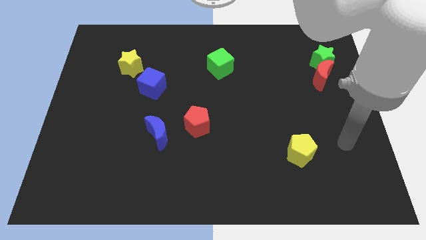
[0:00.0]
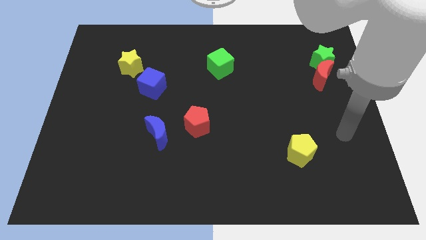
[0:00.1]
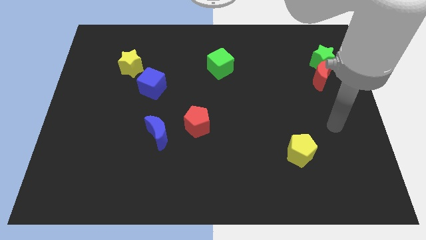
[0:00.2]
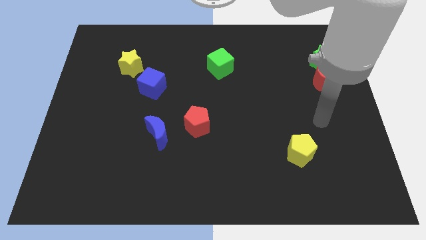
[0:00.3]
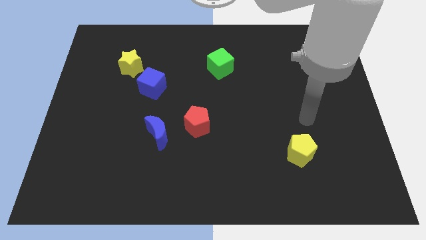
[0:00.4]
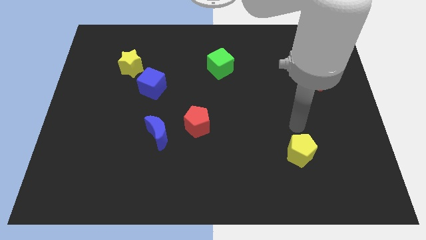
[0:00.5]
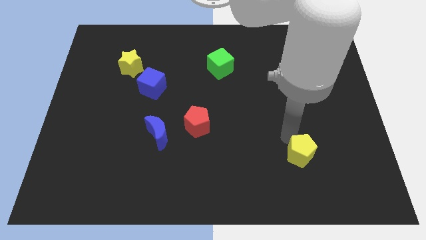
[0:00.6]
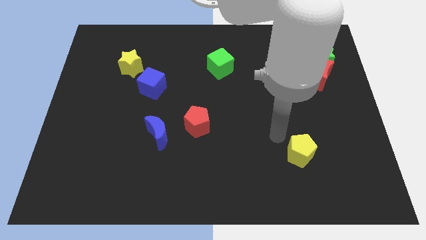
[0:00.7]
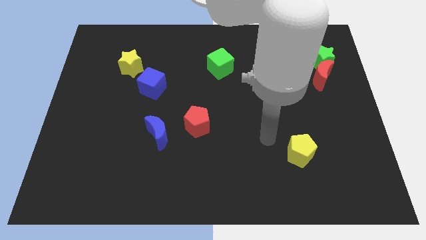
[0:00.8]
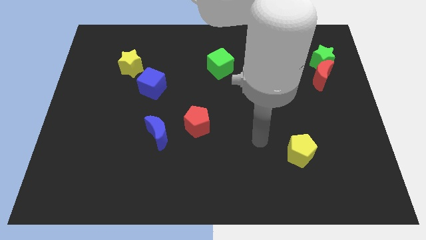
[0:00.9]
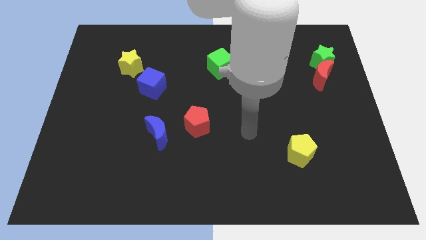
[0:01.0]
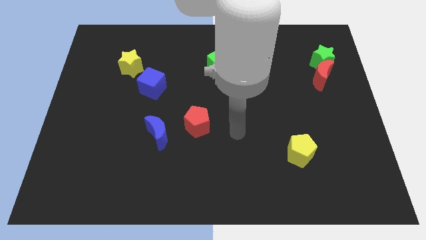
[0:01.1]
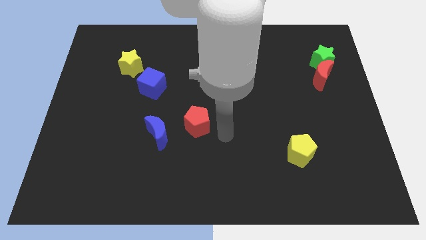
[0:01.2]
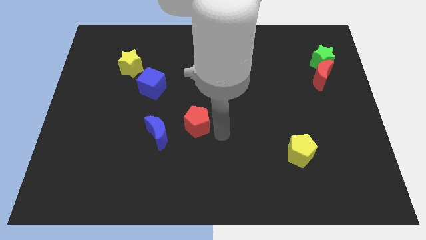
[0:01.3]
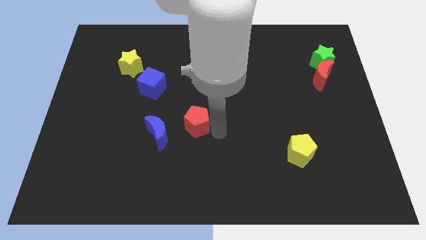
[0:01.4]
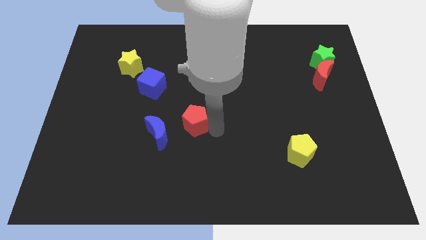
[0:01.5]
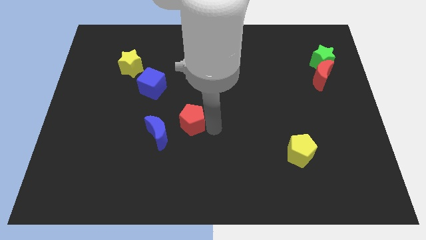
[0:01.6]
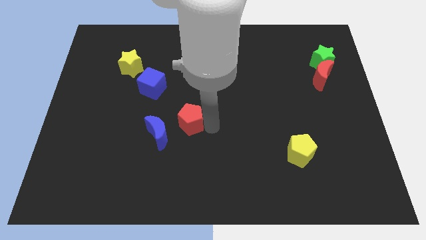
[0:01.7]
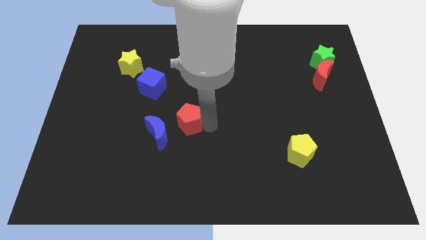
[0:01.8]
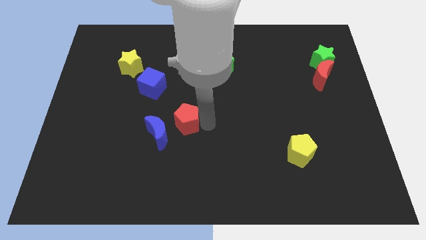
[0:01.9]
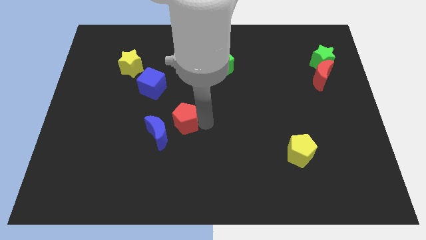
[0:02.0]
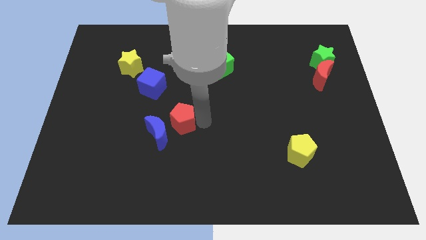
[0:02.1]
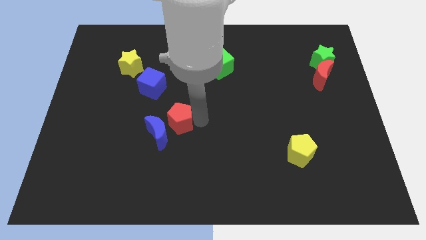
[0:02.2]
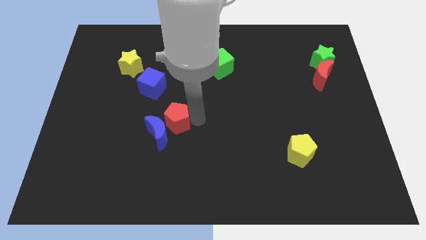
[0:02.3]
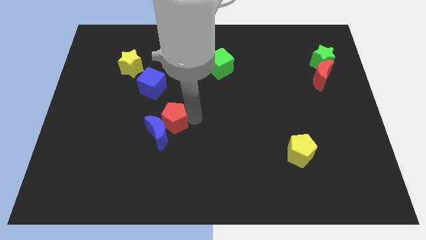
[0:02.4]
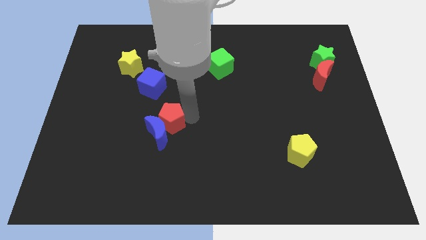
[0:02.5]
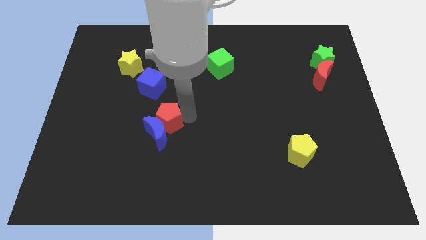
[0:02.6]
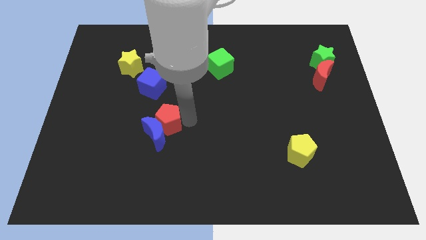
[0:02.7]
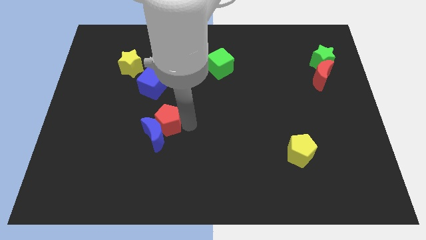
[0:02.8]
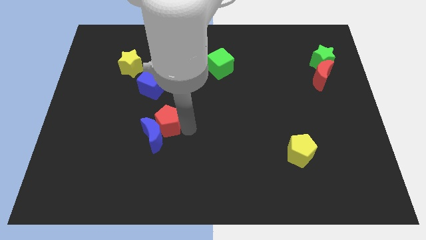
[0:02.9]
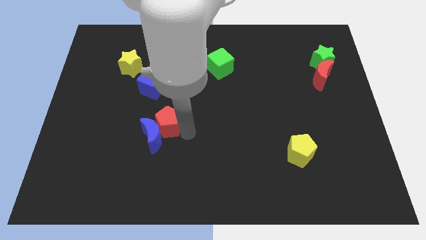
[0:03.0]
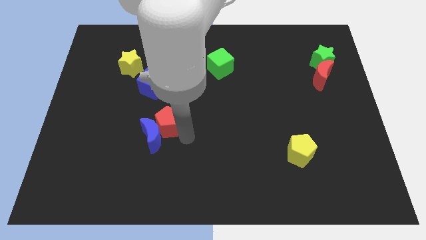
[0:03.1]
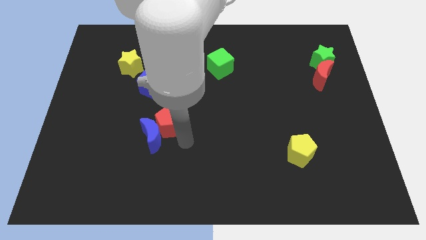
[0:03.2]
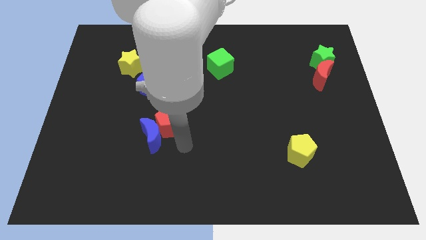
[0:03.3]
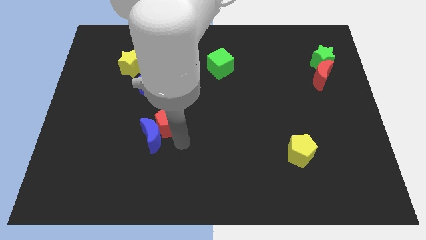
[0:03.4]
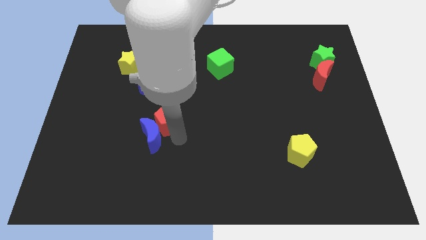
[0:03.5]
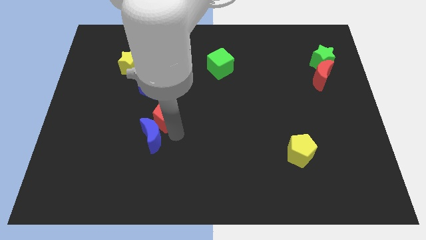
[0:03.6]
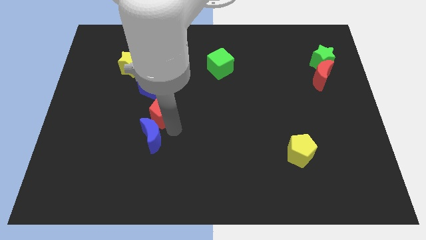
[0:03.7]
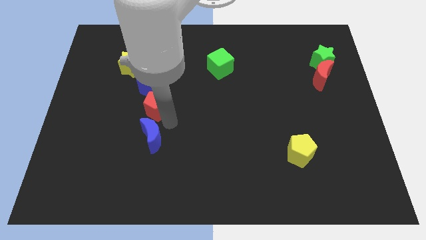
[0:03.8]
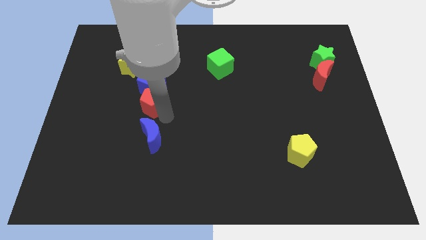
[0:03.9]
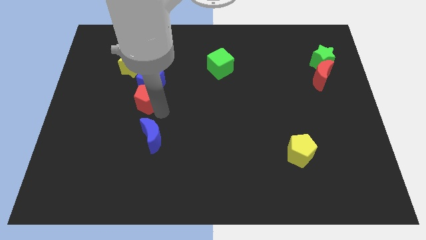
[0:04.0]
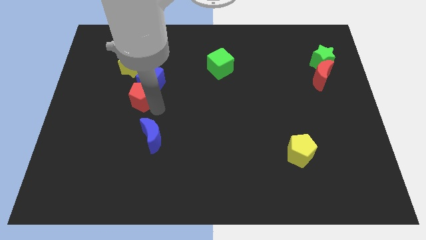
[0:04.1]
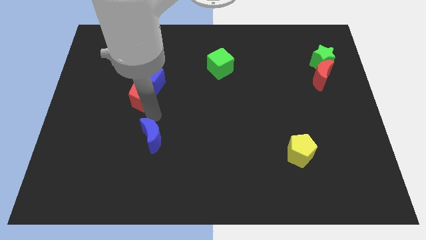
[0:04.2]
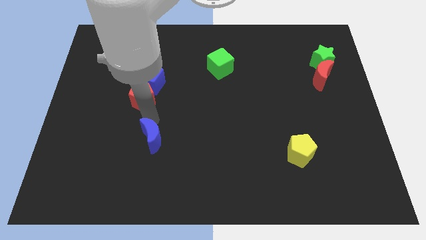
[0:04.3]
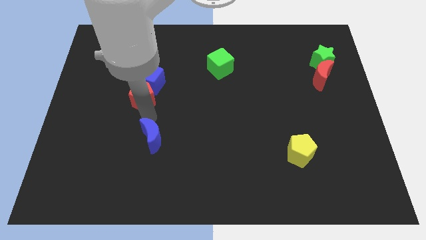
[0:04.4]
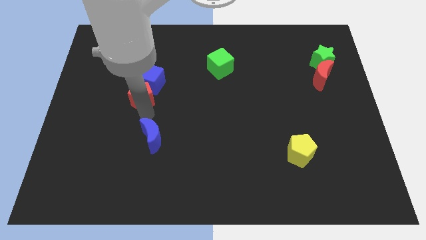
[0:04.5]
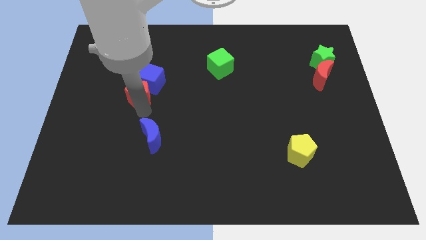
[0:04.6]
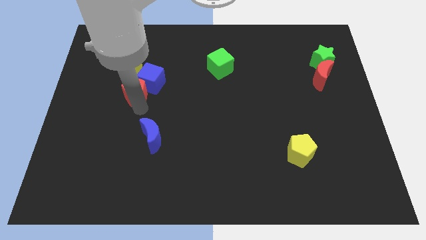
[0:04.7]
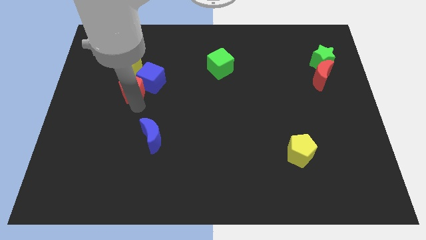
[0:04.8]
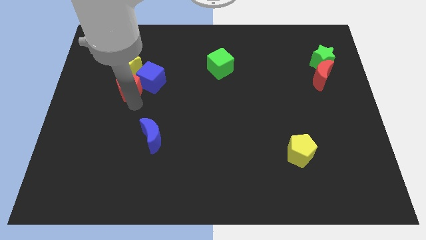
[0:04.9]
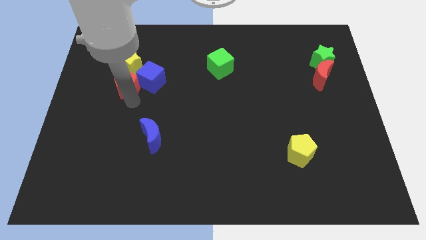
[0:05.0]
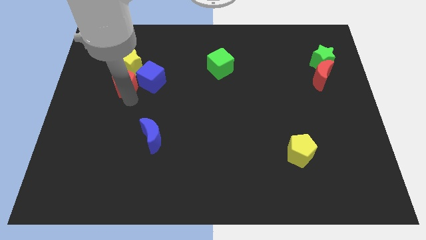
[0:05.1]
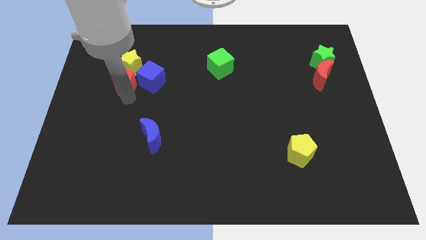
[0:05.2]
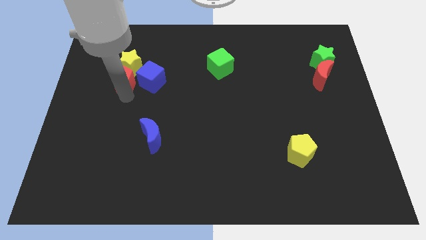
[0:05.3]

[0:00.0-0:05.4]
put the red pentagon close to the yellow star

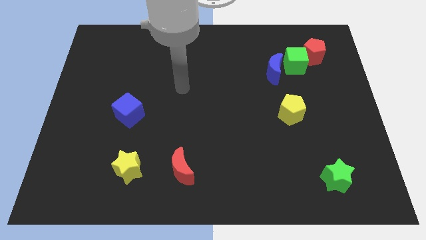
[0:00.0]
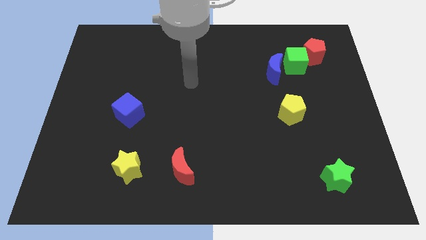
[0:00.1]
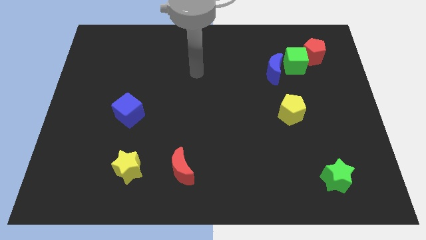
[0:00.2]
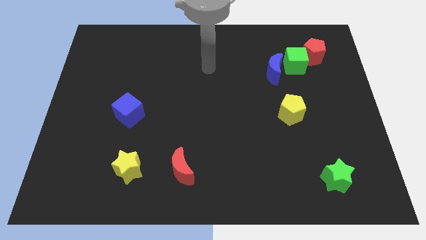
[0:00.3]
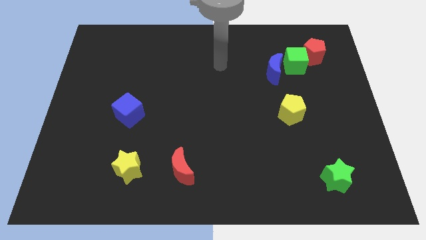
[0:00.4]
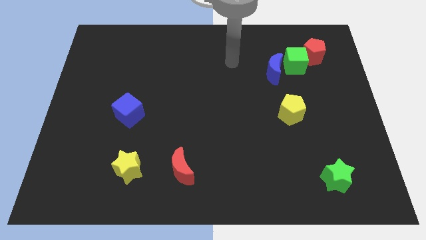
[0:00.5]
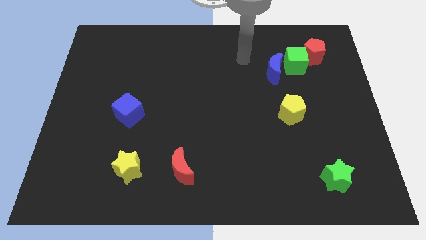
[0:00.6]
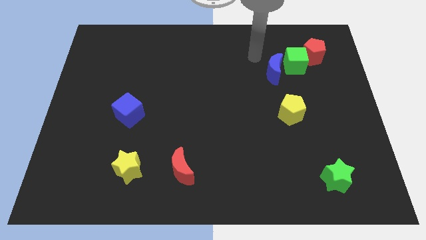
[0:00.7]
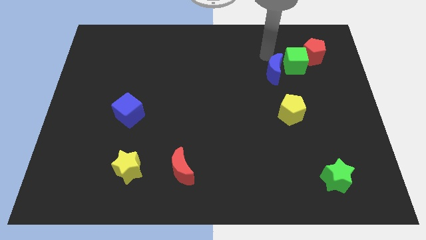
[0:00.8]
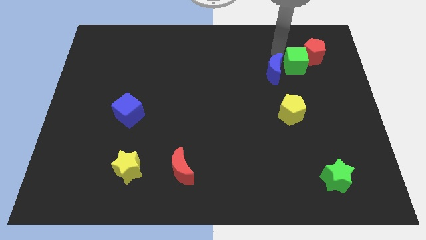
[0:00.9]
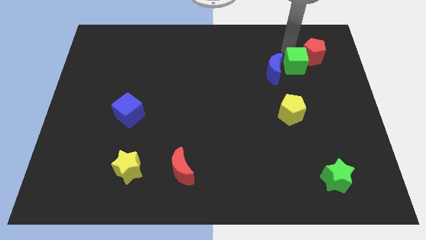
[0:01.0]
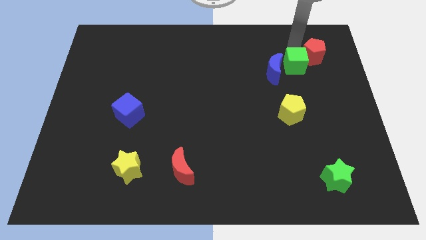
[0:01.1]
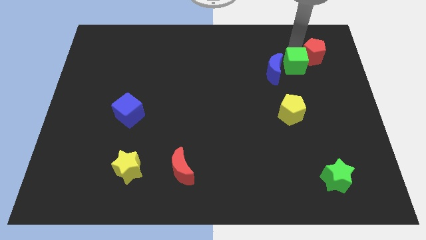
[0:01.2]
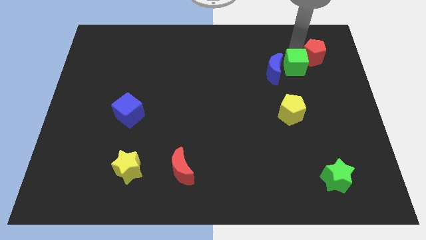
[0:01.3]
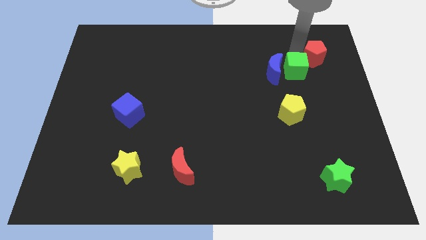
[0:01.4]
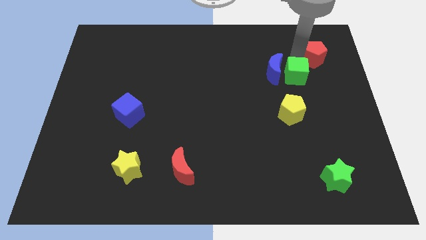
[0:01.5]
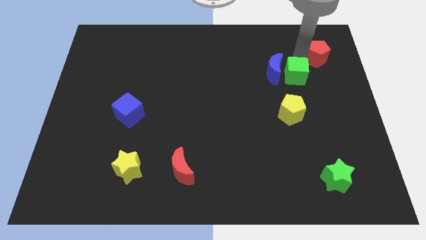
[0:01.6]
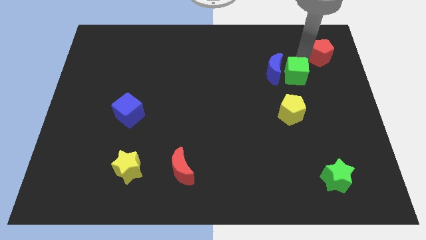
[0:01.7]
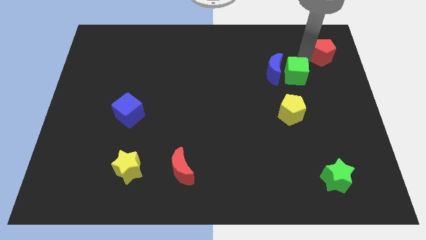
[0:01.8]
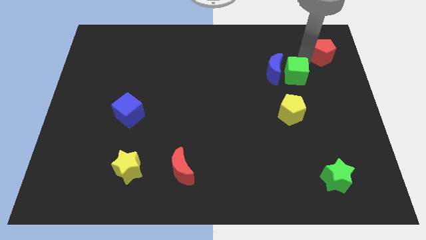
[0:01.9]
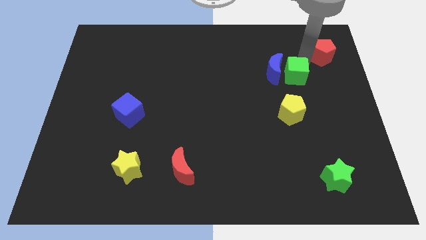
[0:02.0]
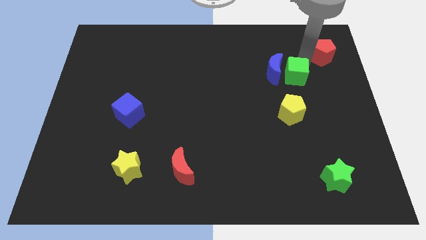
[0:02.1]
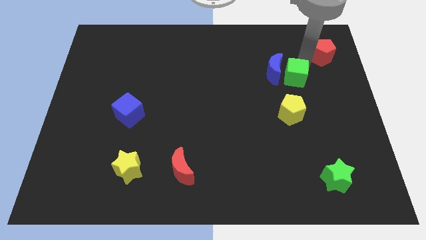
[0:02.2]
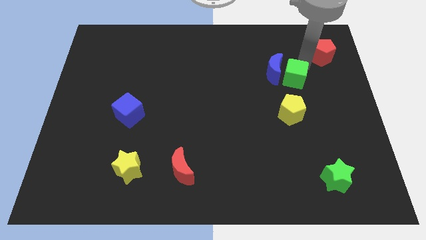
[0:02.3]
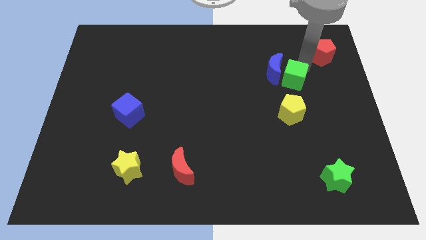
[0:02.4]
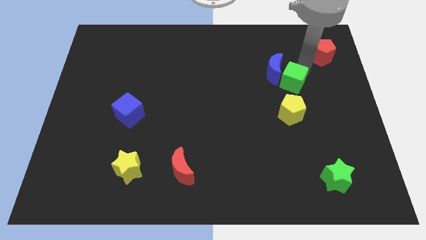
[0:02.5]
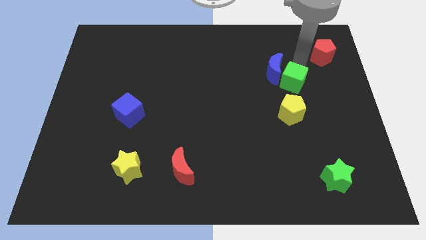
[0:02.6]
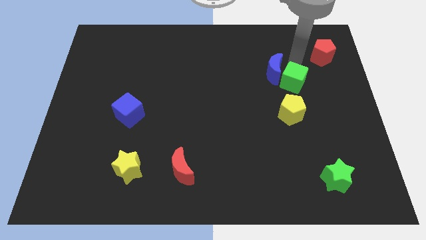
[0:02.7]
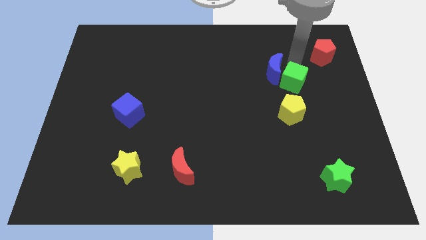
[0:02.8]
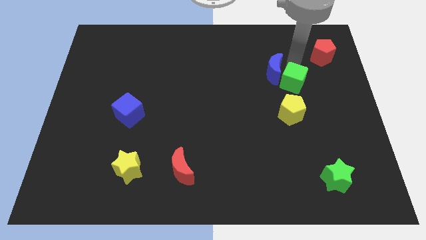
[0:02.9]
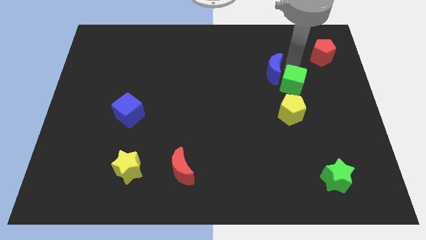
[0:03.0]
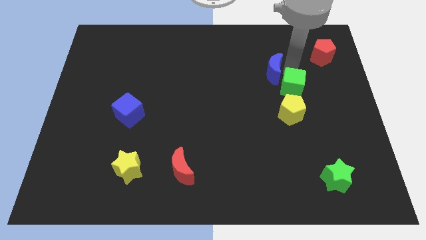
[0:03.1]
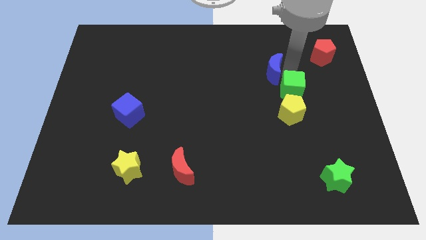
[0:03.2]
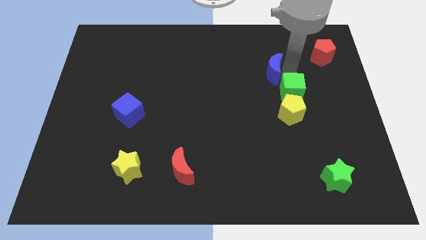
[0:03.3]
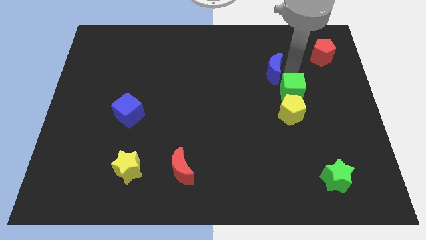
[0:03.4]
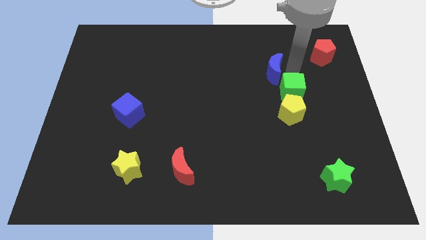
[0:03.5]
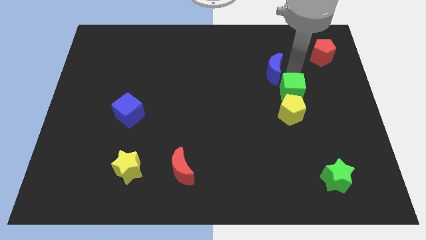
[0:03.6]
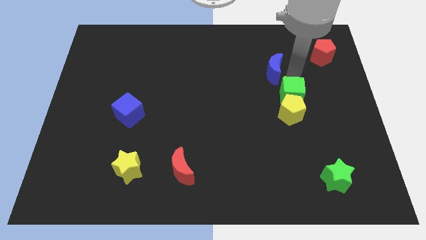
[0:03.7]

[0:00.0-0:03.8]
slide the green cube towards the yellow pentagon
